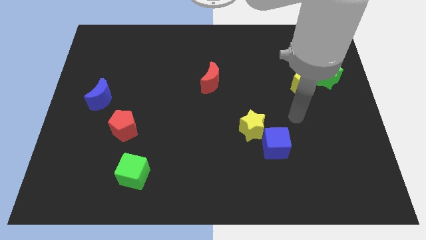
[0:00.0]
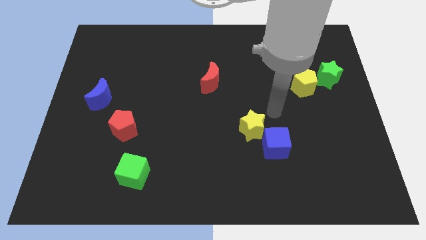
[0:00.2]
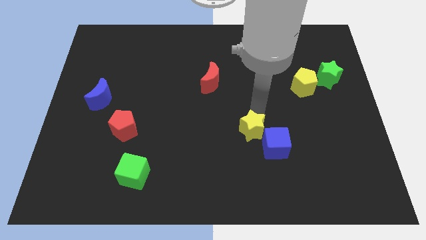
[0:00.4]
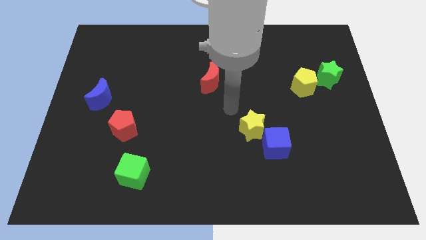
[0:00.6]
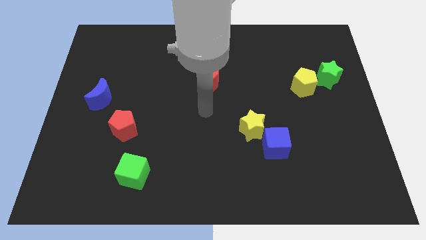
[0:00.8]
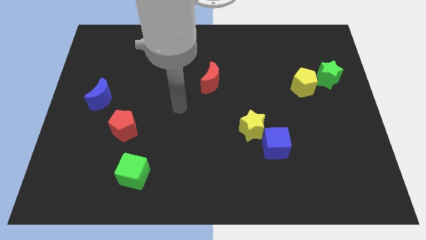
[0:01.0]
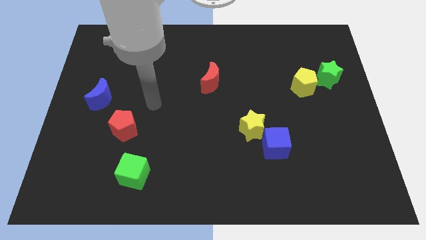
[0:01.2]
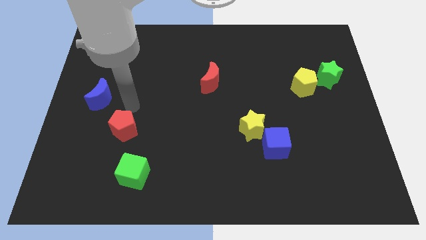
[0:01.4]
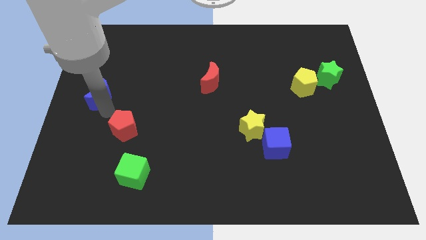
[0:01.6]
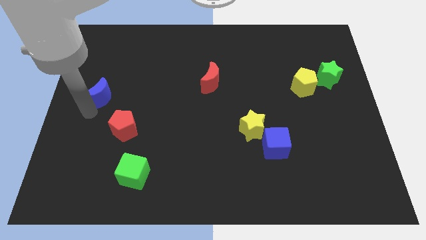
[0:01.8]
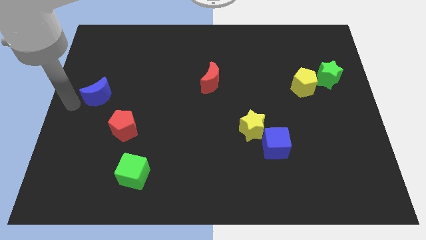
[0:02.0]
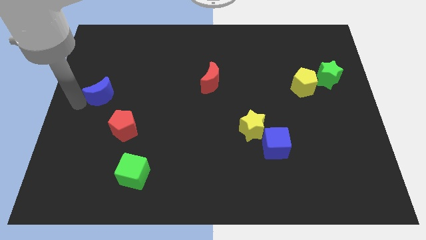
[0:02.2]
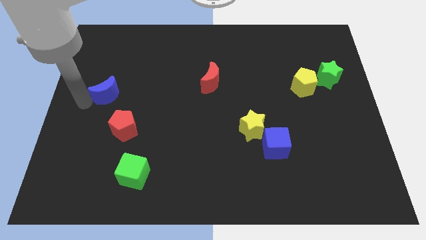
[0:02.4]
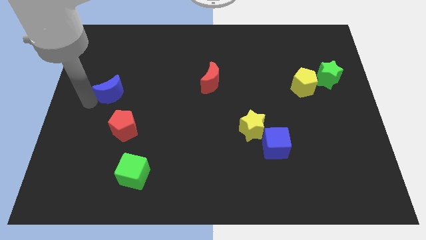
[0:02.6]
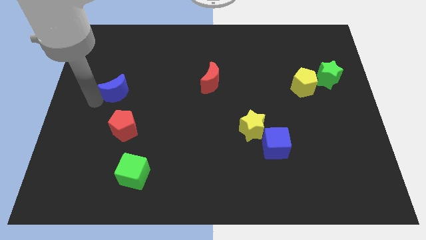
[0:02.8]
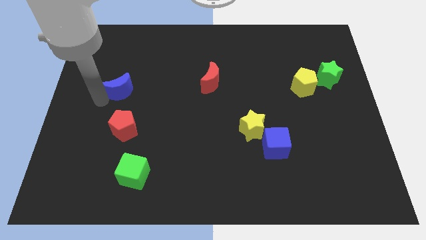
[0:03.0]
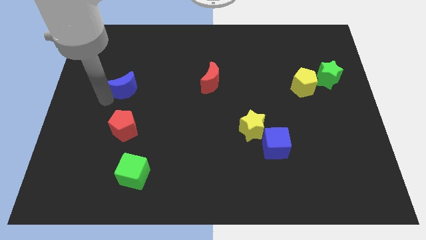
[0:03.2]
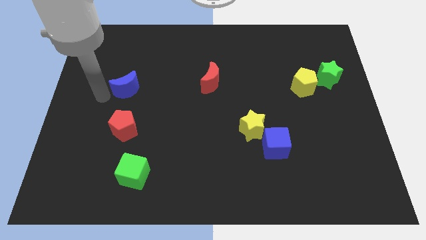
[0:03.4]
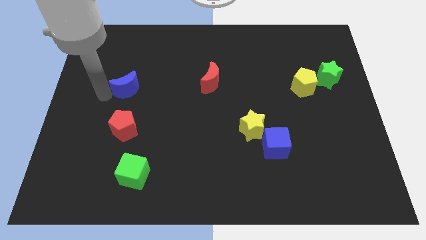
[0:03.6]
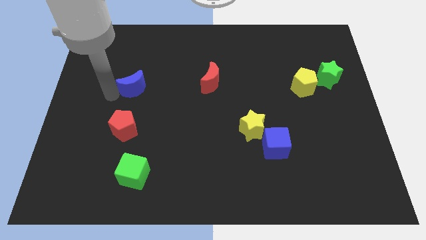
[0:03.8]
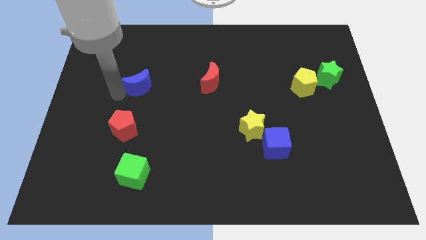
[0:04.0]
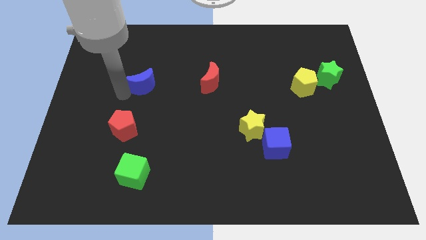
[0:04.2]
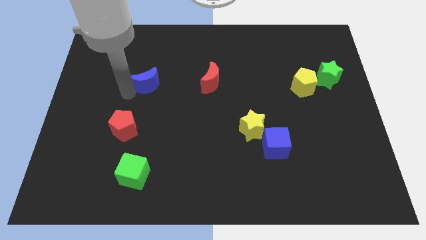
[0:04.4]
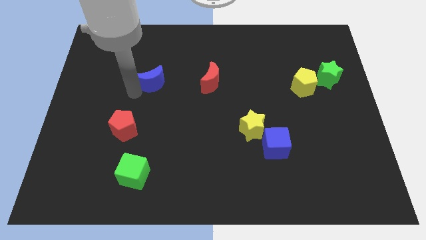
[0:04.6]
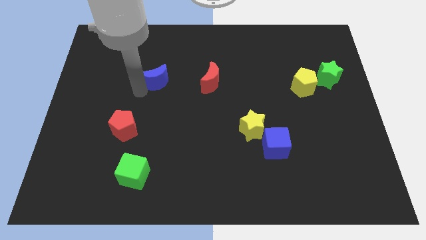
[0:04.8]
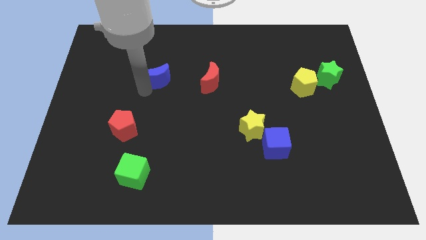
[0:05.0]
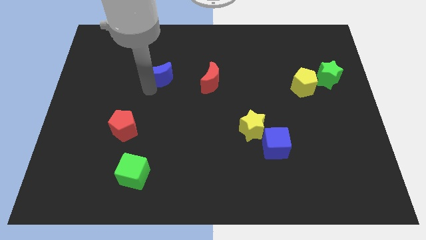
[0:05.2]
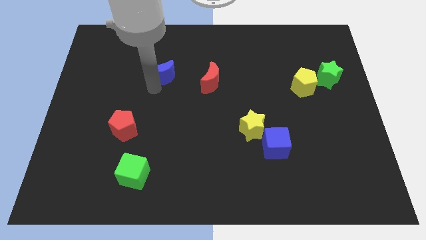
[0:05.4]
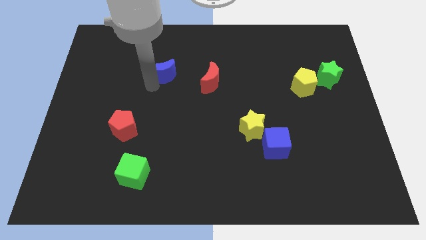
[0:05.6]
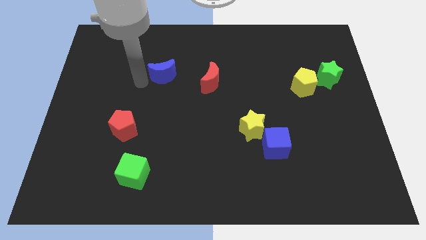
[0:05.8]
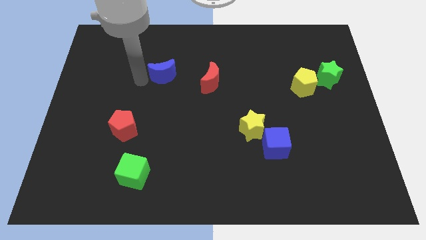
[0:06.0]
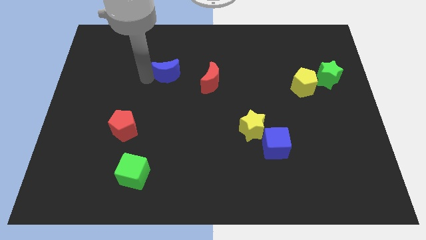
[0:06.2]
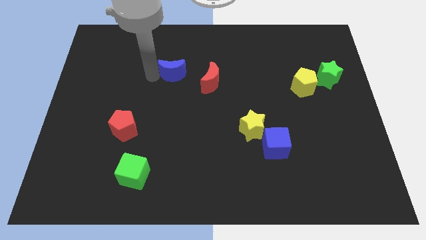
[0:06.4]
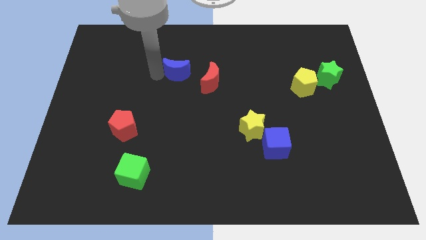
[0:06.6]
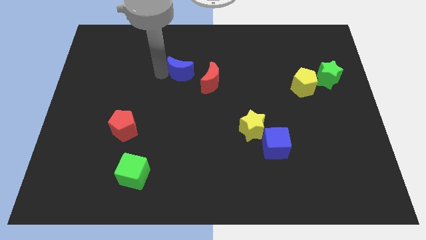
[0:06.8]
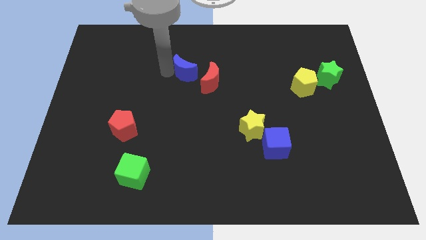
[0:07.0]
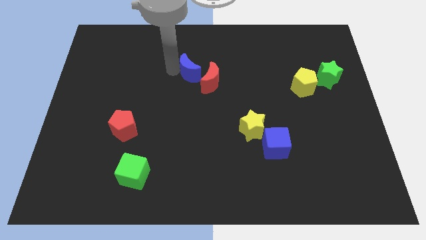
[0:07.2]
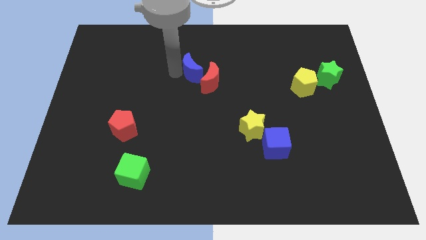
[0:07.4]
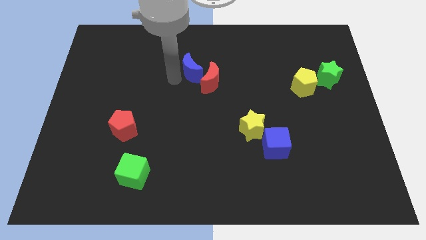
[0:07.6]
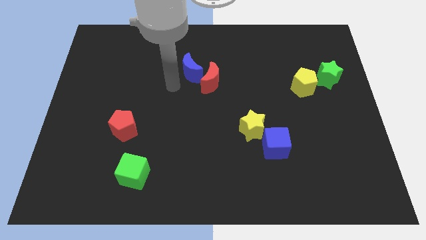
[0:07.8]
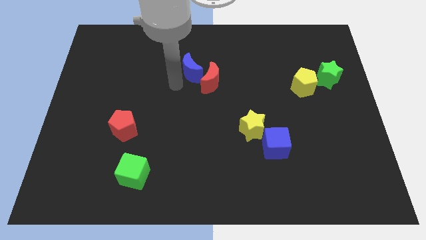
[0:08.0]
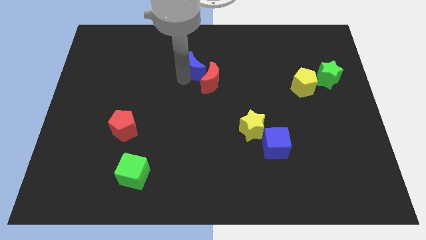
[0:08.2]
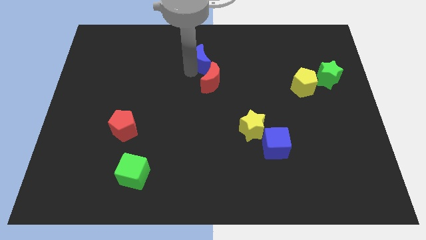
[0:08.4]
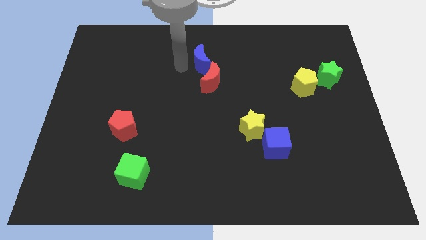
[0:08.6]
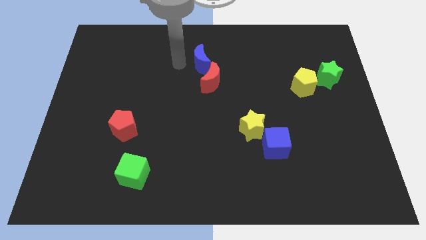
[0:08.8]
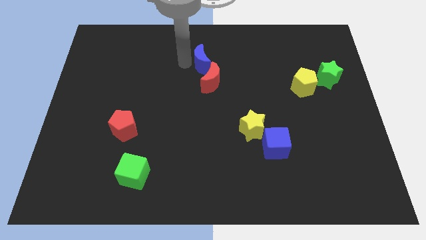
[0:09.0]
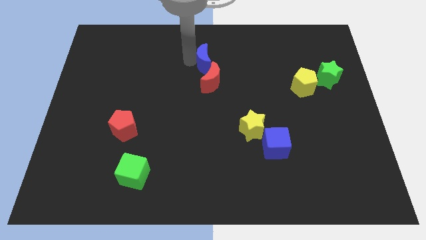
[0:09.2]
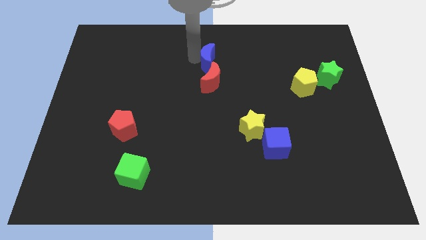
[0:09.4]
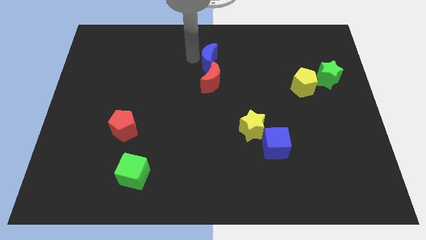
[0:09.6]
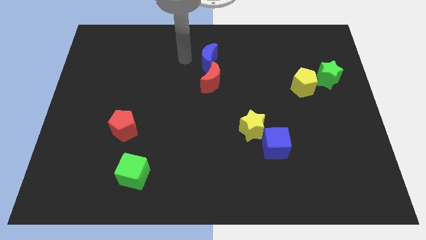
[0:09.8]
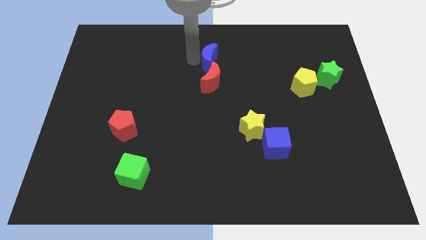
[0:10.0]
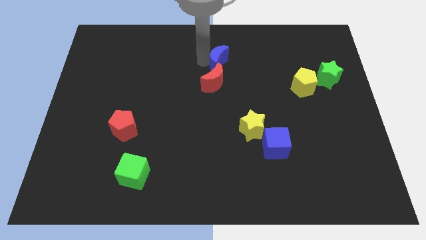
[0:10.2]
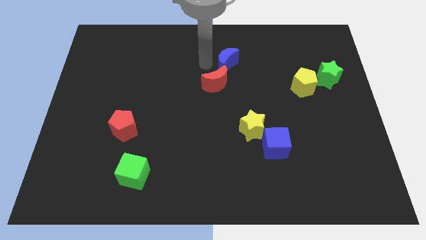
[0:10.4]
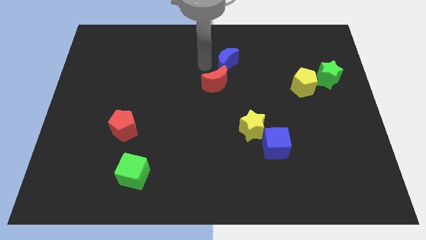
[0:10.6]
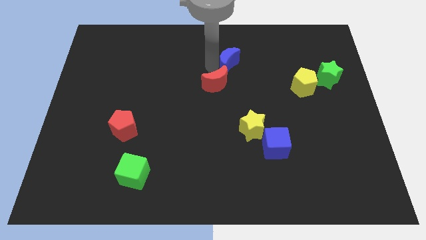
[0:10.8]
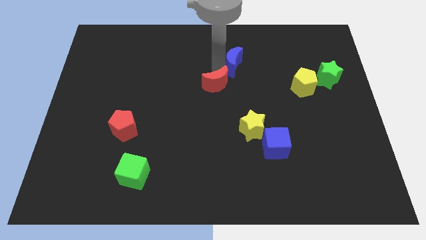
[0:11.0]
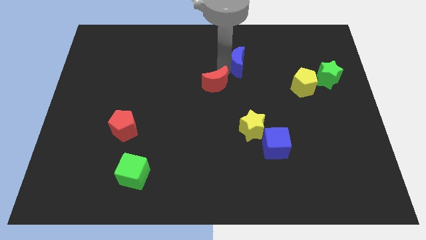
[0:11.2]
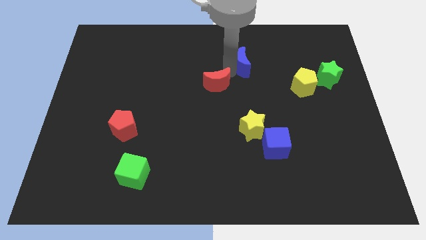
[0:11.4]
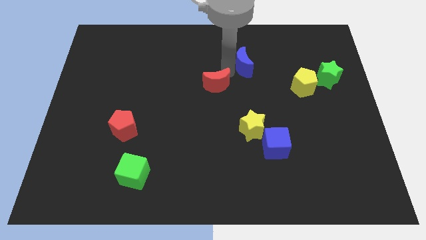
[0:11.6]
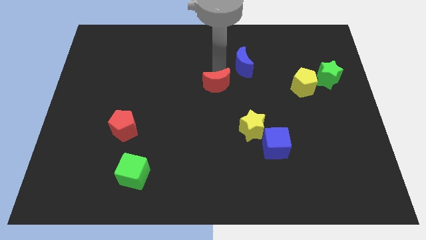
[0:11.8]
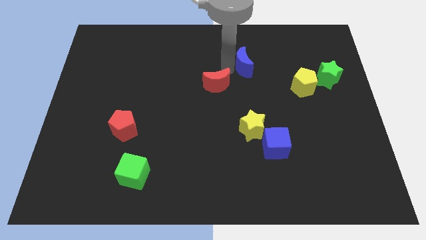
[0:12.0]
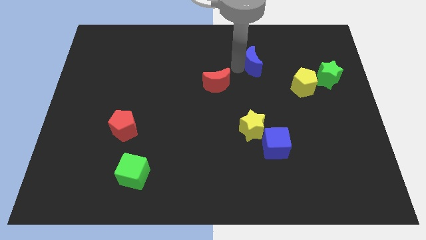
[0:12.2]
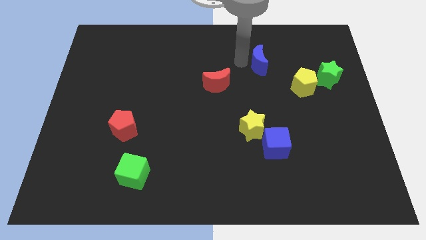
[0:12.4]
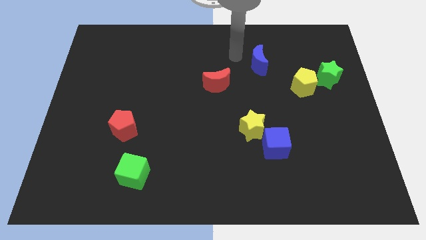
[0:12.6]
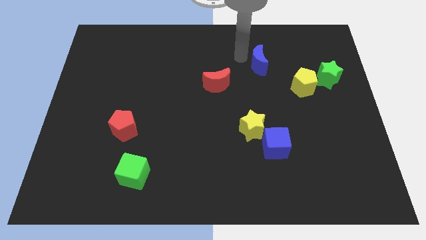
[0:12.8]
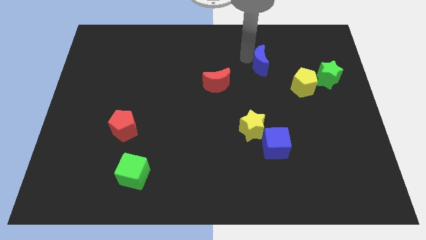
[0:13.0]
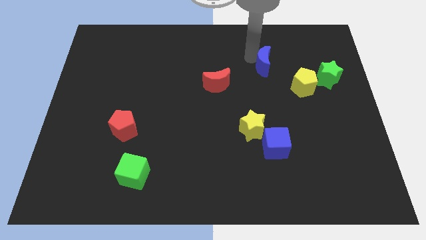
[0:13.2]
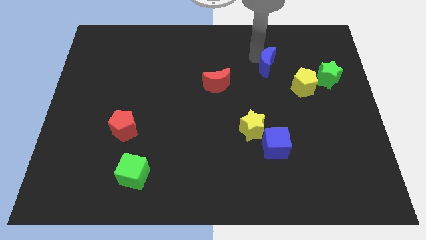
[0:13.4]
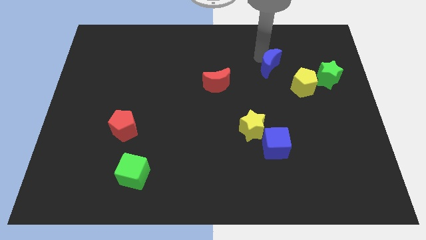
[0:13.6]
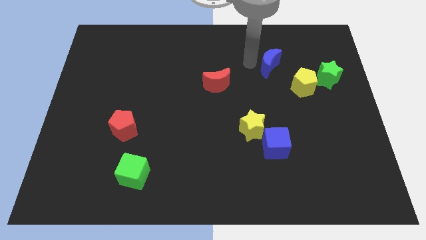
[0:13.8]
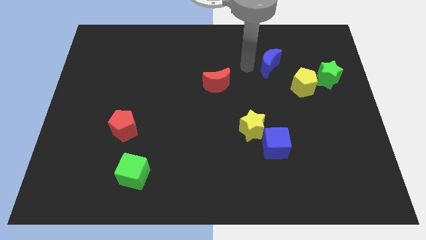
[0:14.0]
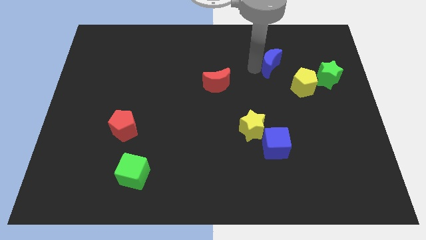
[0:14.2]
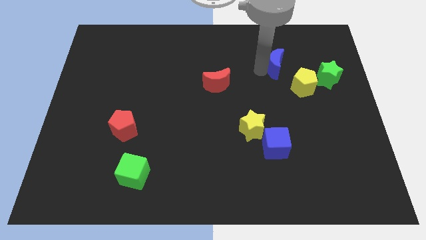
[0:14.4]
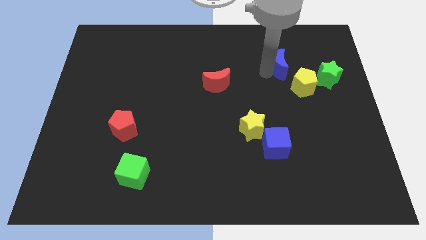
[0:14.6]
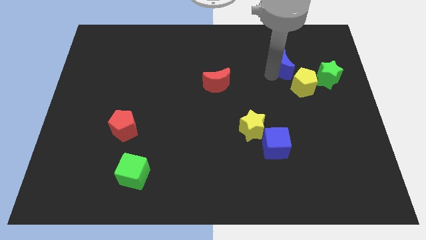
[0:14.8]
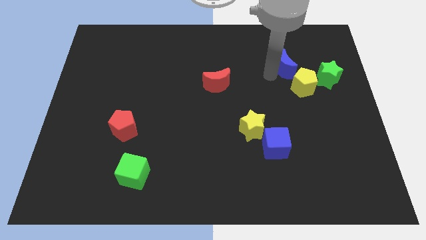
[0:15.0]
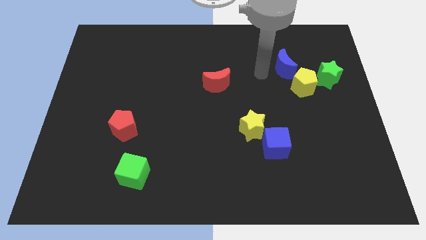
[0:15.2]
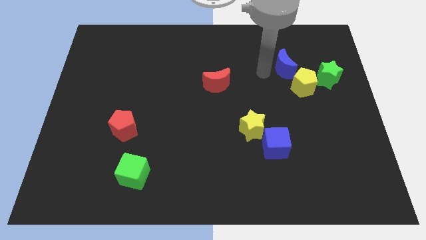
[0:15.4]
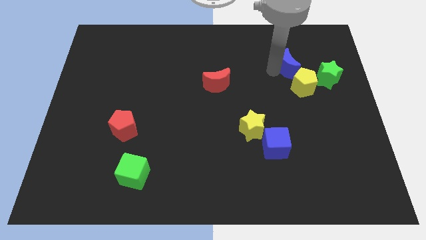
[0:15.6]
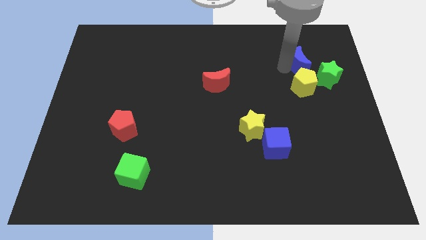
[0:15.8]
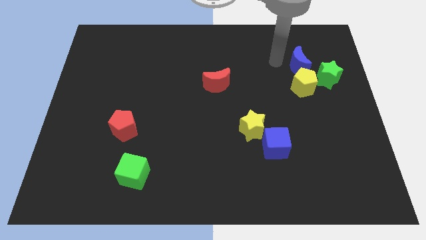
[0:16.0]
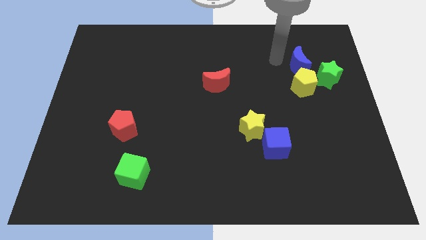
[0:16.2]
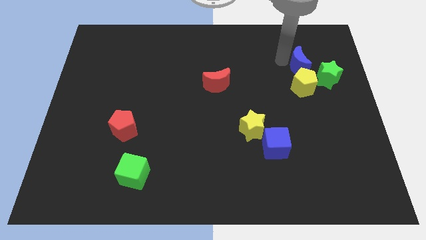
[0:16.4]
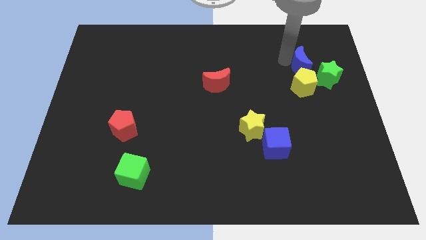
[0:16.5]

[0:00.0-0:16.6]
push the blue moon to the top right side of the yellow pentagon
